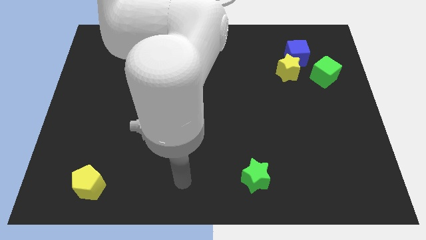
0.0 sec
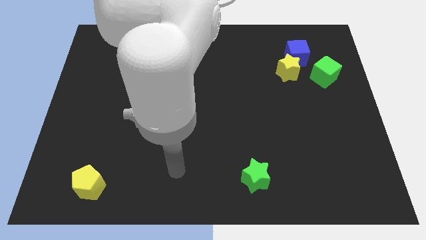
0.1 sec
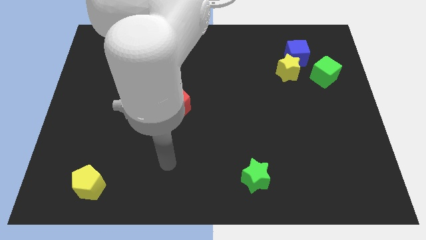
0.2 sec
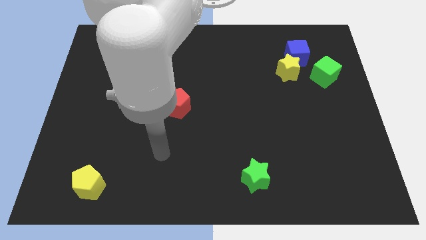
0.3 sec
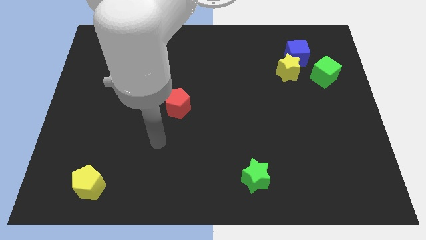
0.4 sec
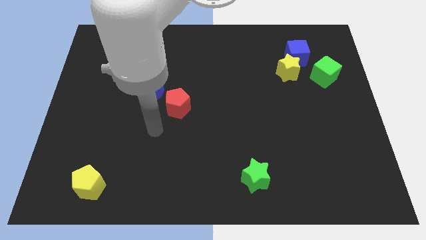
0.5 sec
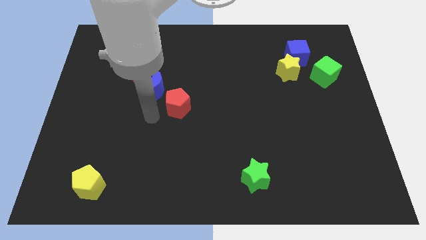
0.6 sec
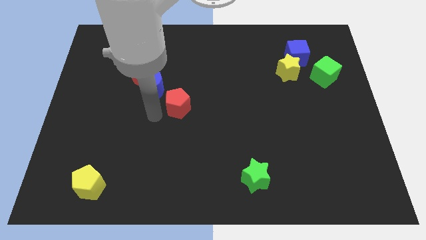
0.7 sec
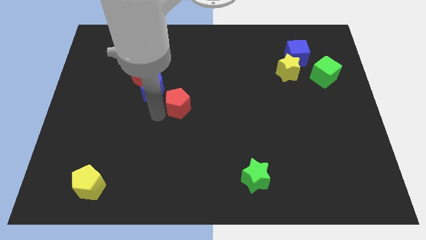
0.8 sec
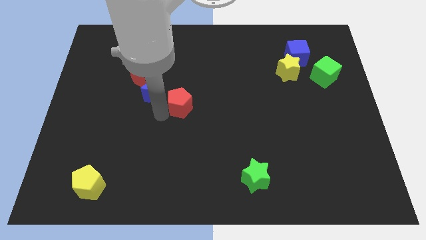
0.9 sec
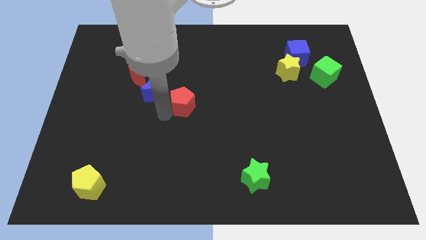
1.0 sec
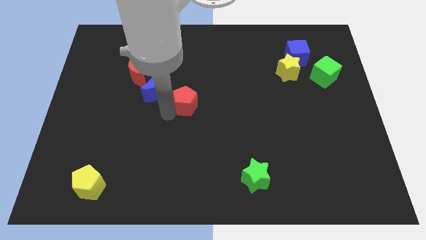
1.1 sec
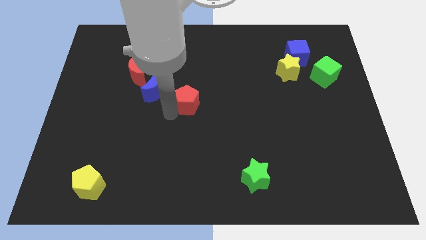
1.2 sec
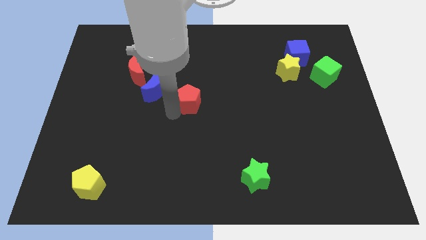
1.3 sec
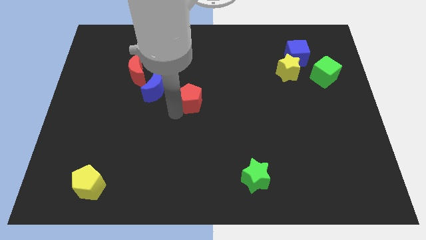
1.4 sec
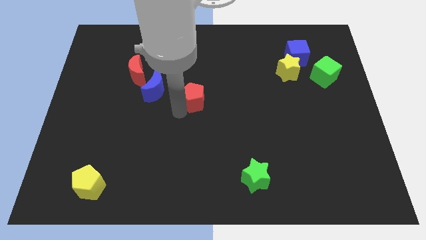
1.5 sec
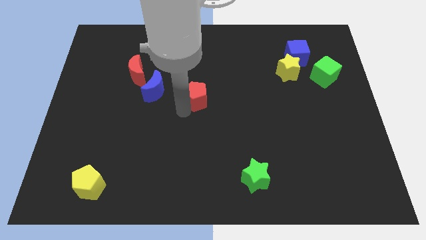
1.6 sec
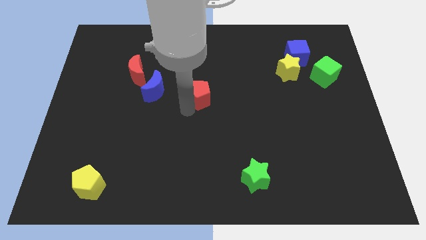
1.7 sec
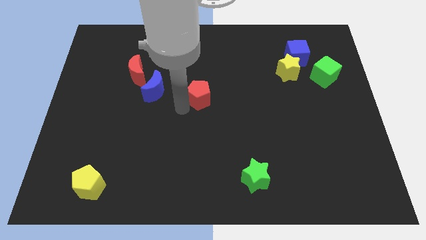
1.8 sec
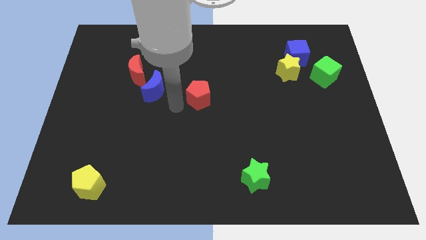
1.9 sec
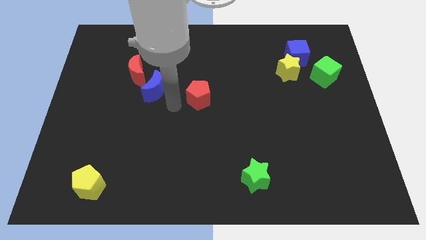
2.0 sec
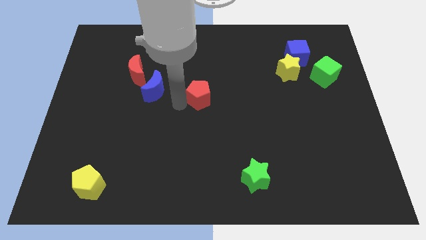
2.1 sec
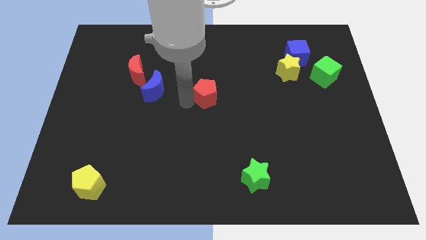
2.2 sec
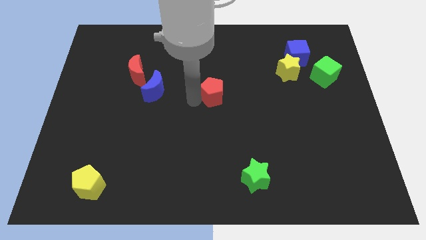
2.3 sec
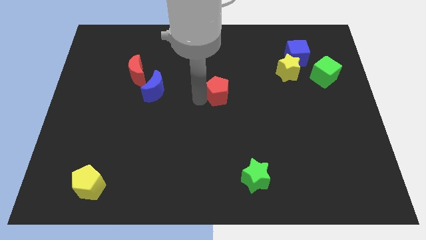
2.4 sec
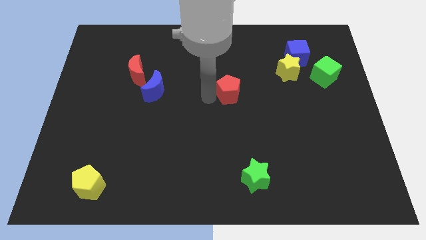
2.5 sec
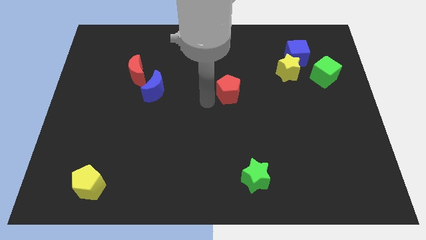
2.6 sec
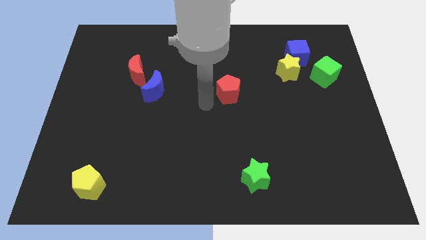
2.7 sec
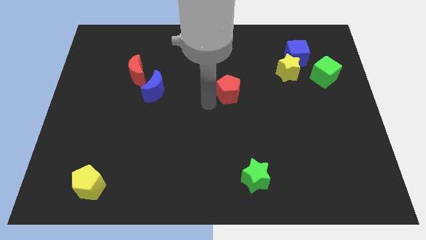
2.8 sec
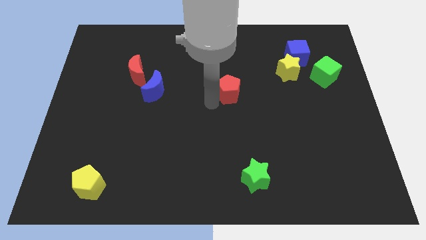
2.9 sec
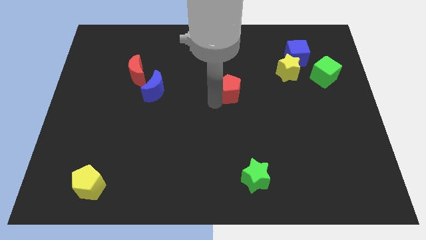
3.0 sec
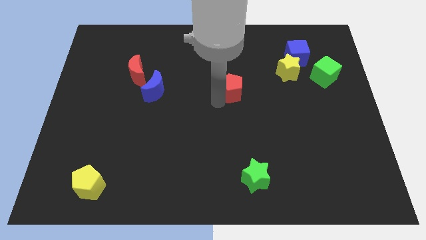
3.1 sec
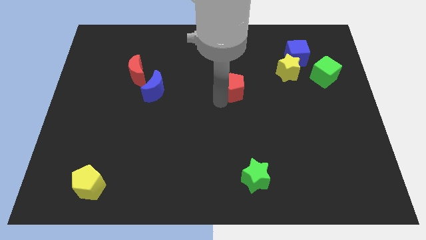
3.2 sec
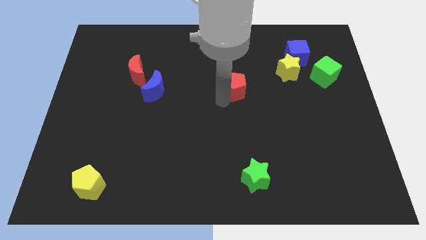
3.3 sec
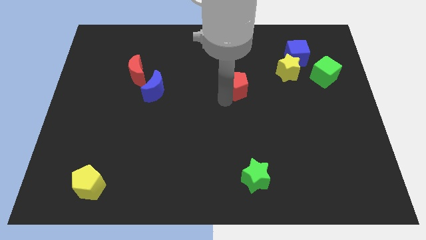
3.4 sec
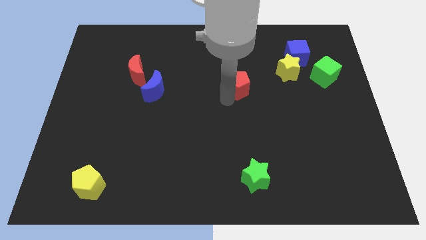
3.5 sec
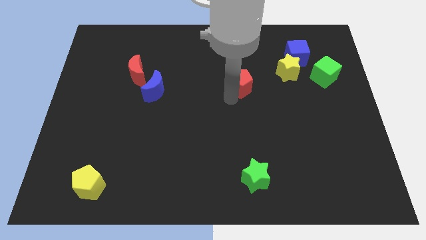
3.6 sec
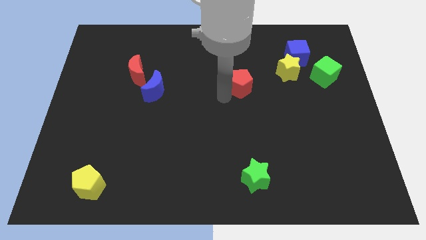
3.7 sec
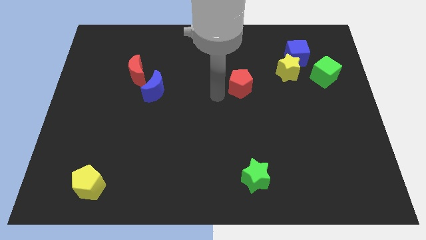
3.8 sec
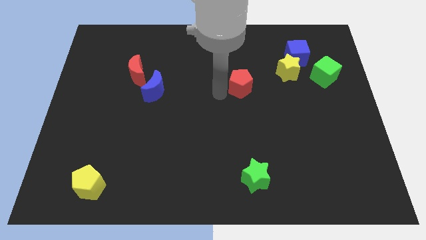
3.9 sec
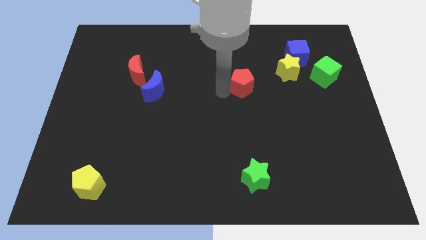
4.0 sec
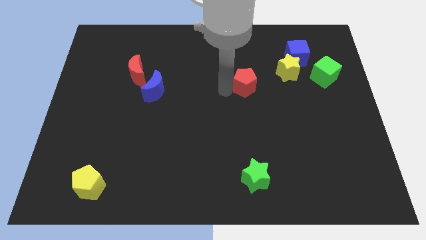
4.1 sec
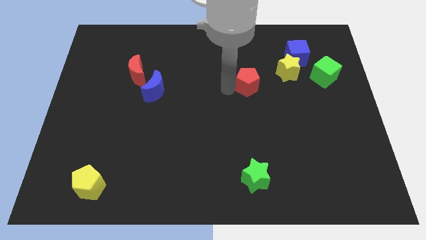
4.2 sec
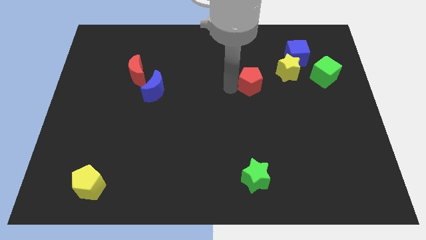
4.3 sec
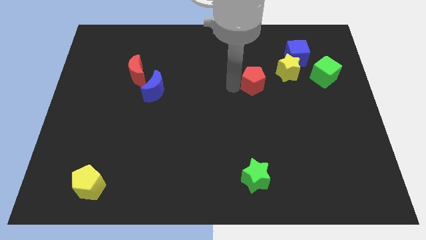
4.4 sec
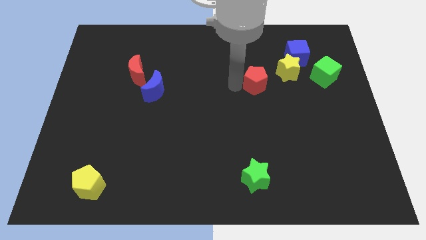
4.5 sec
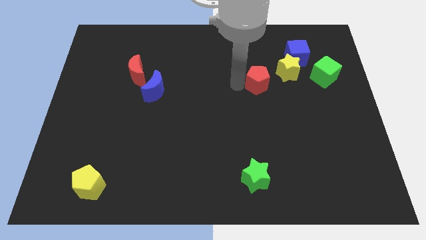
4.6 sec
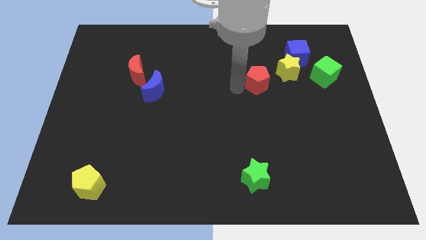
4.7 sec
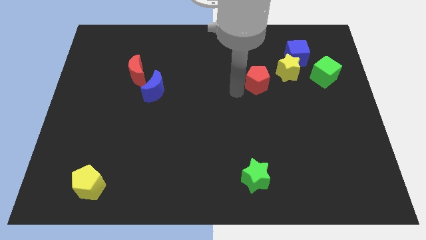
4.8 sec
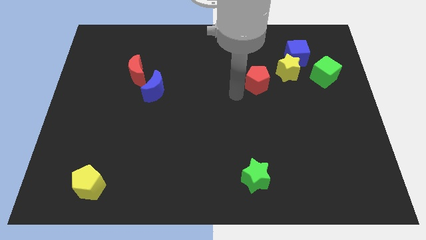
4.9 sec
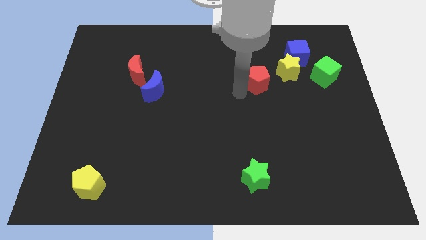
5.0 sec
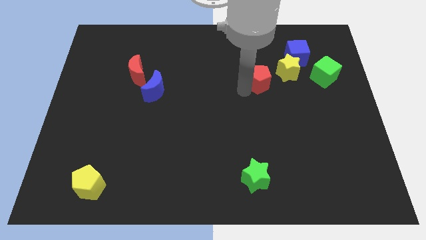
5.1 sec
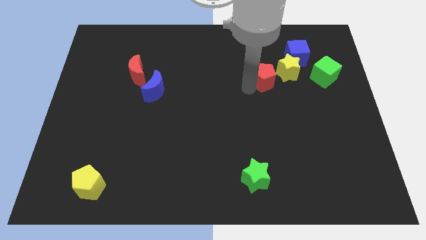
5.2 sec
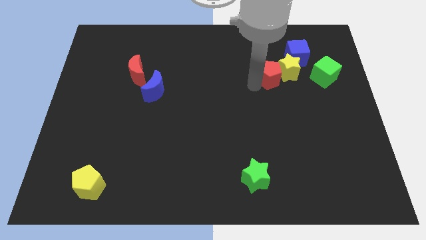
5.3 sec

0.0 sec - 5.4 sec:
put the red pentagon close to the yellow star

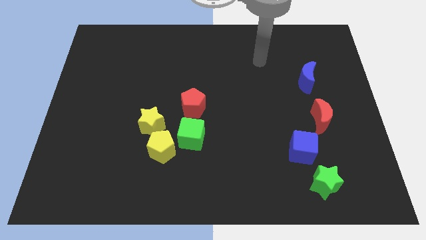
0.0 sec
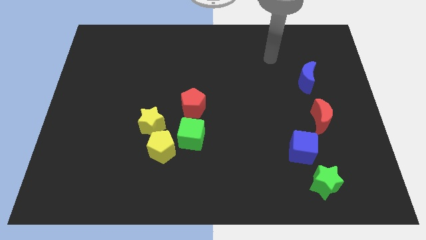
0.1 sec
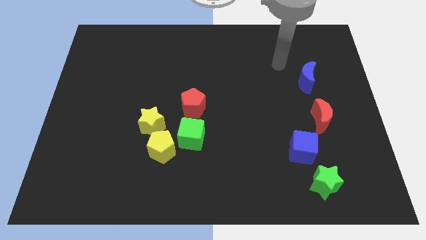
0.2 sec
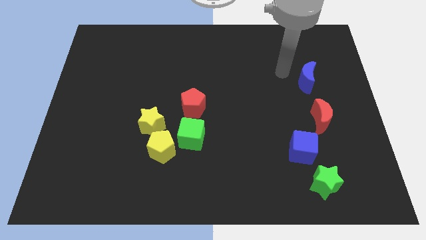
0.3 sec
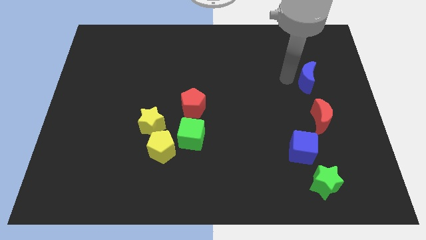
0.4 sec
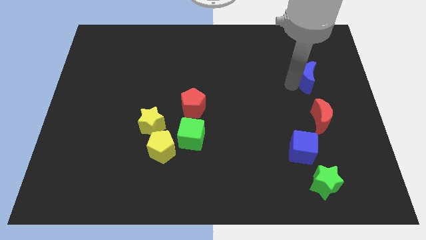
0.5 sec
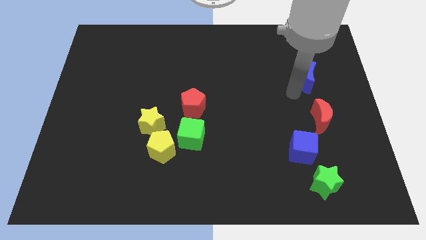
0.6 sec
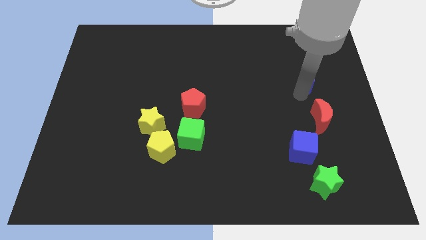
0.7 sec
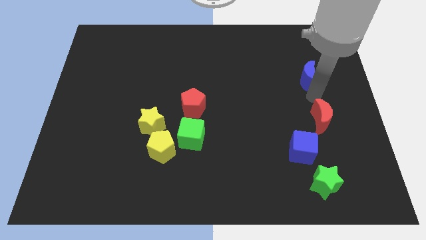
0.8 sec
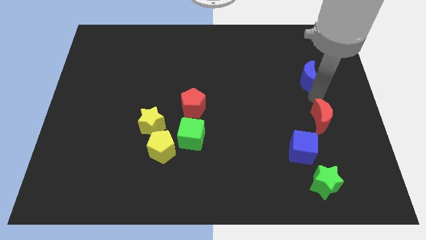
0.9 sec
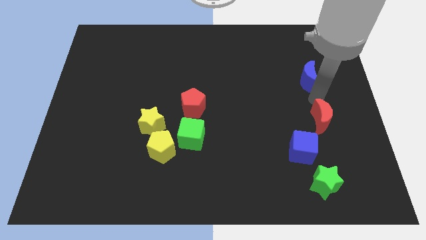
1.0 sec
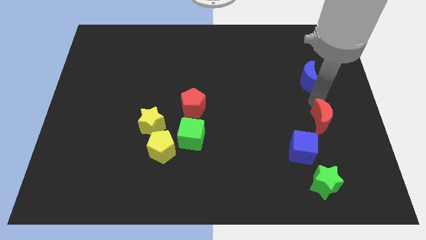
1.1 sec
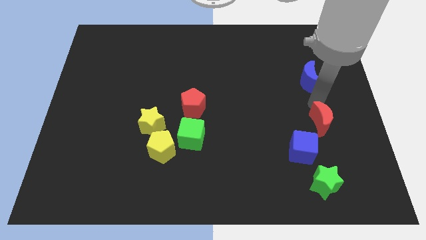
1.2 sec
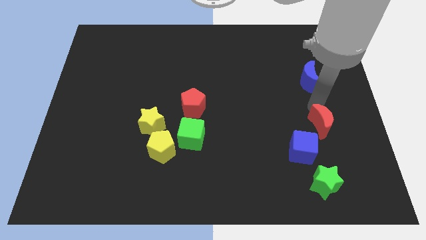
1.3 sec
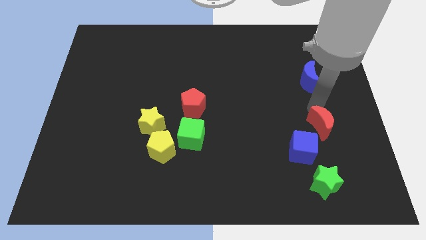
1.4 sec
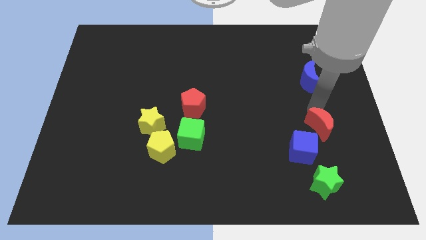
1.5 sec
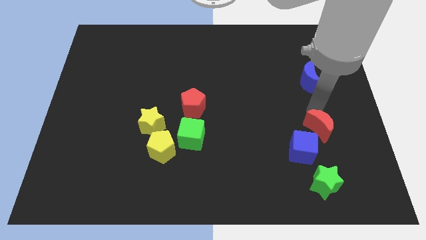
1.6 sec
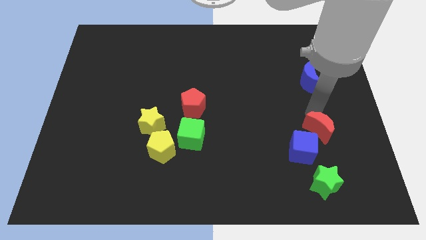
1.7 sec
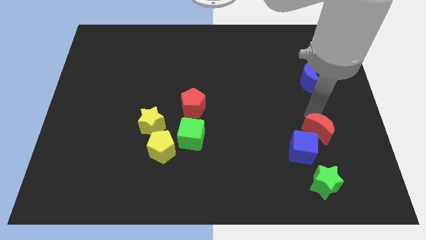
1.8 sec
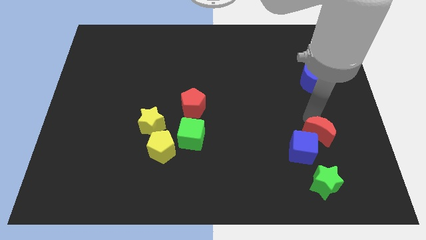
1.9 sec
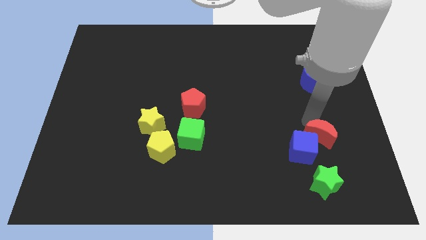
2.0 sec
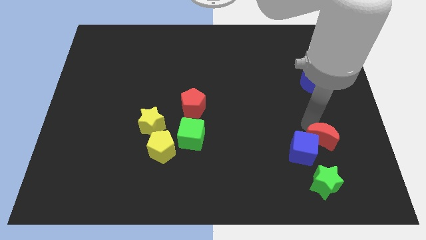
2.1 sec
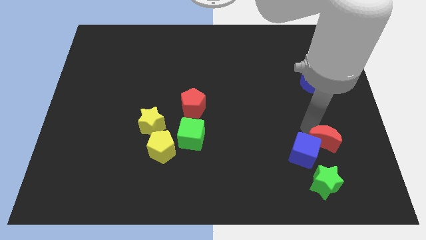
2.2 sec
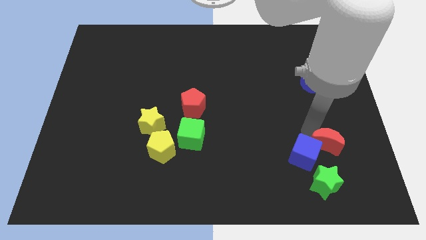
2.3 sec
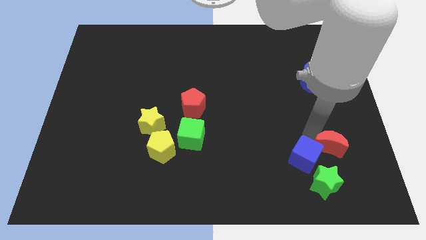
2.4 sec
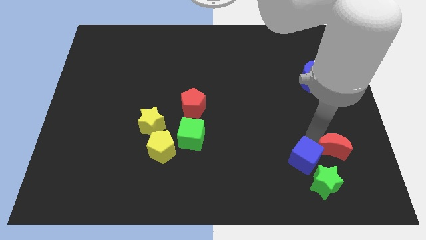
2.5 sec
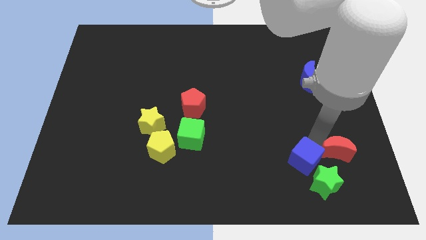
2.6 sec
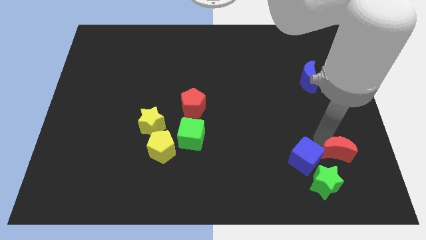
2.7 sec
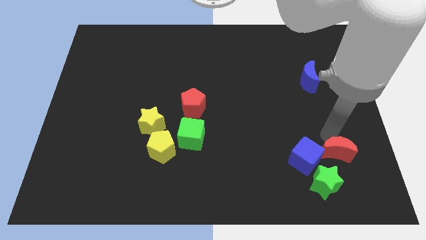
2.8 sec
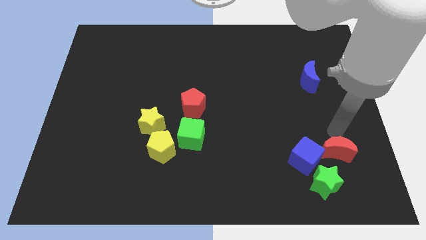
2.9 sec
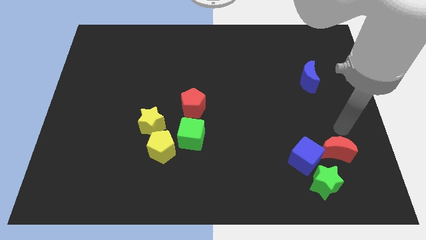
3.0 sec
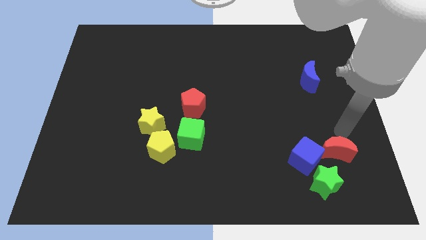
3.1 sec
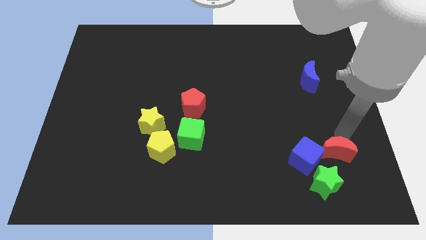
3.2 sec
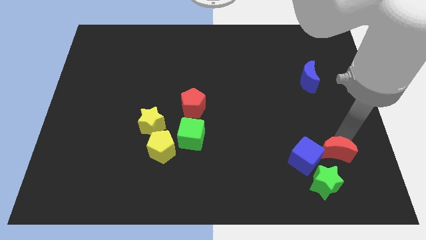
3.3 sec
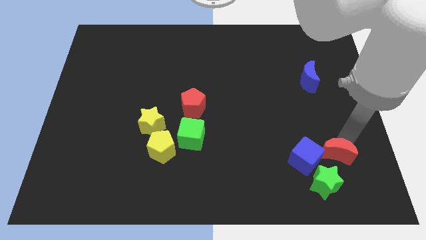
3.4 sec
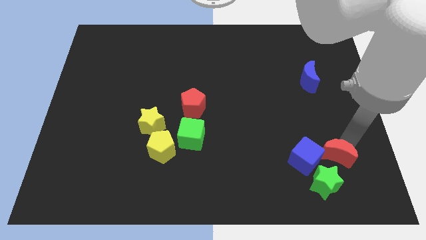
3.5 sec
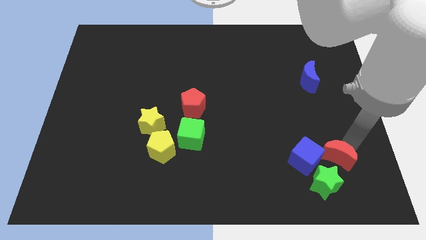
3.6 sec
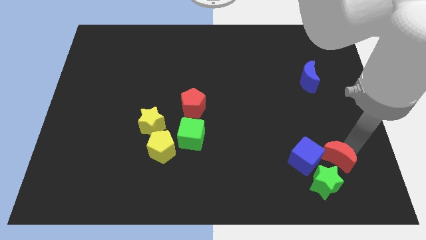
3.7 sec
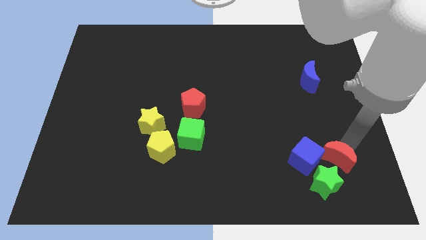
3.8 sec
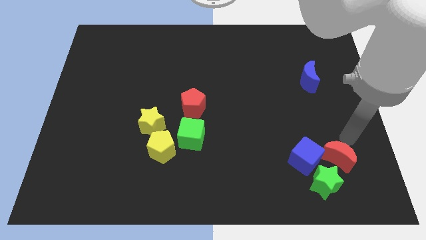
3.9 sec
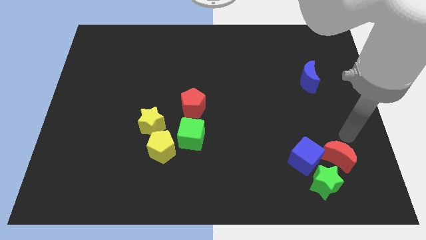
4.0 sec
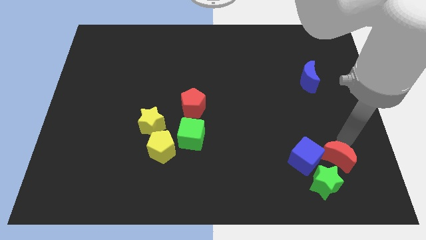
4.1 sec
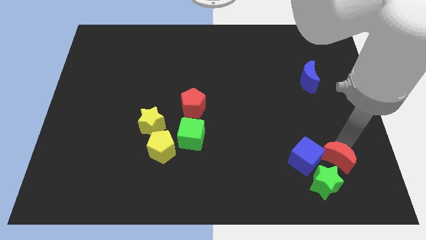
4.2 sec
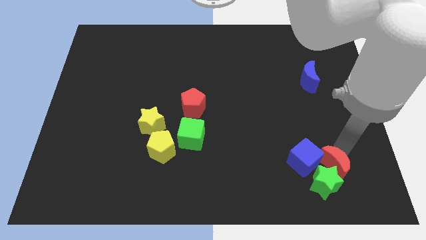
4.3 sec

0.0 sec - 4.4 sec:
put the red moon towards the green star
